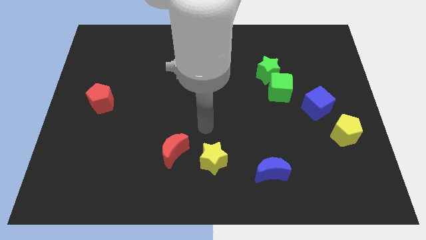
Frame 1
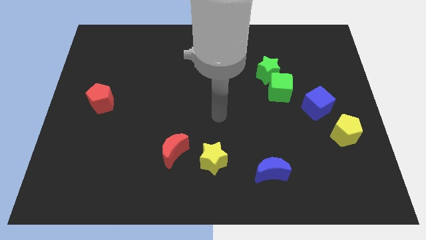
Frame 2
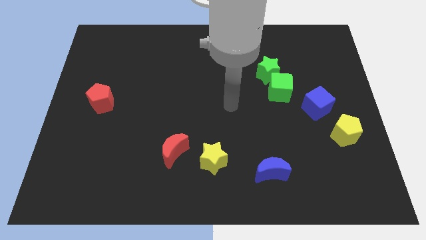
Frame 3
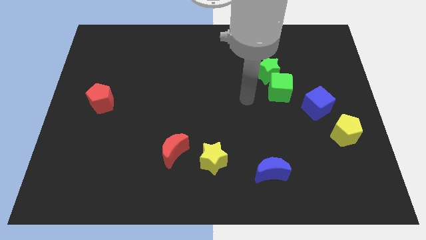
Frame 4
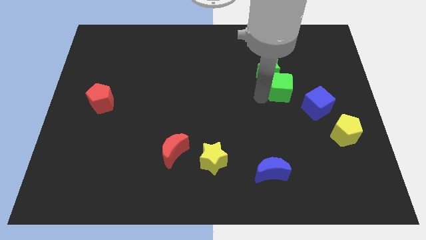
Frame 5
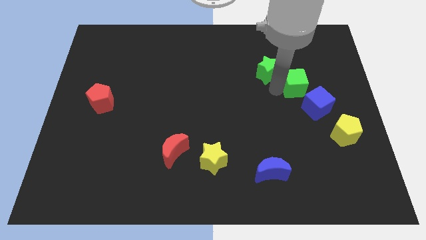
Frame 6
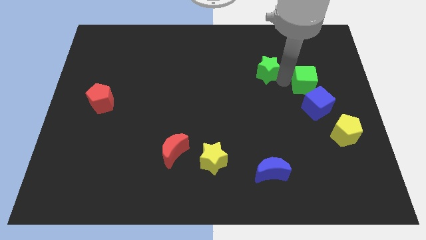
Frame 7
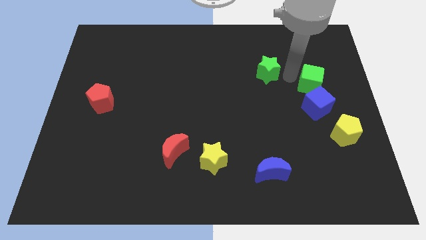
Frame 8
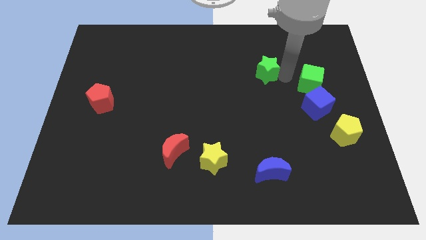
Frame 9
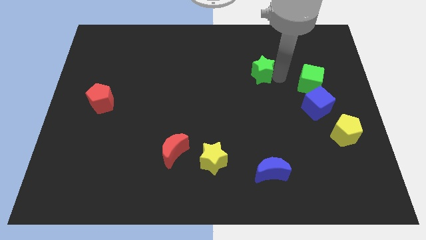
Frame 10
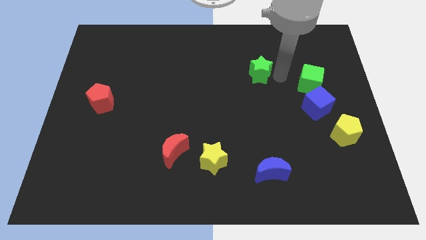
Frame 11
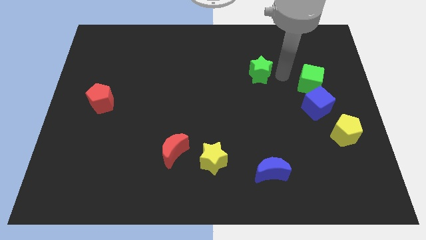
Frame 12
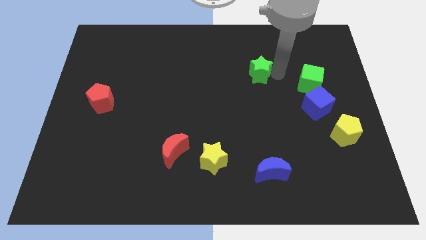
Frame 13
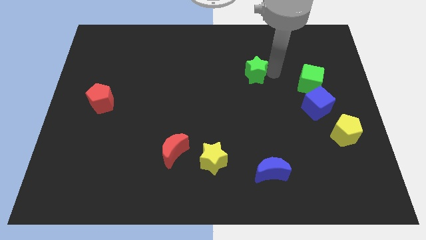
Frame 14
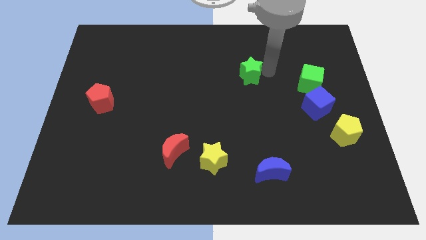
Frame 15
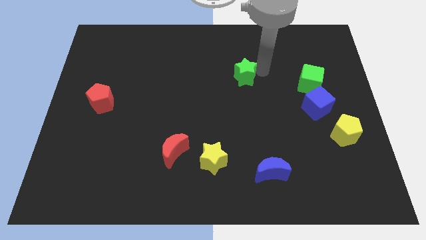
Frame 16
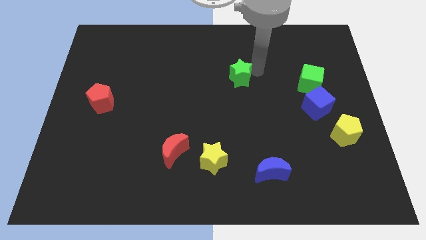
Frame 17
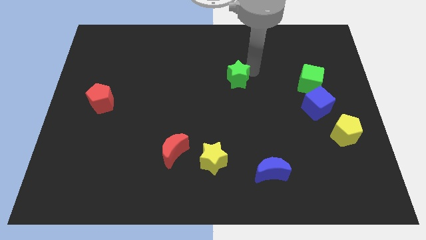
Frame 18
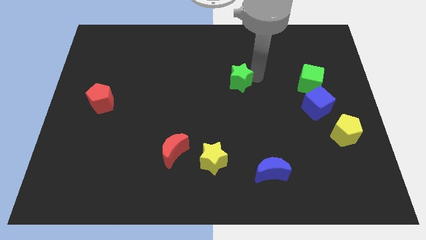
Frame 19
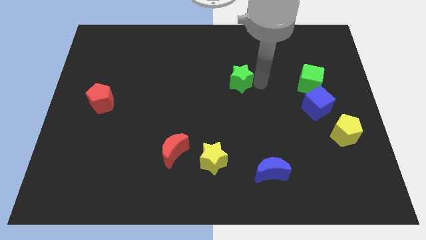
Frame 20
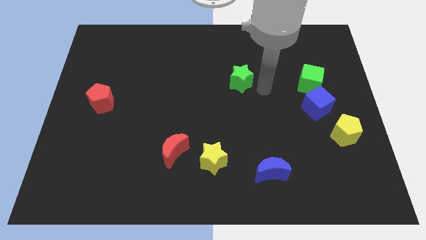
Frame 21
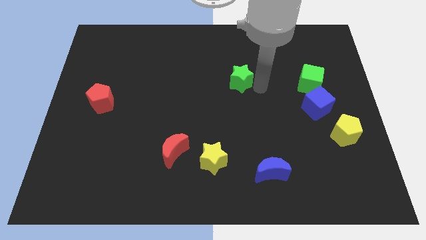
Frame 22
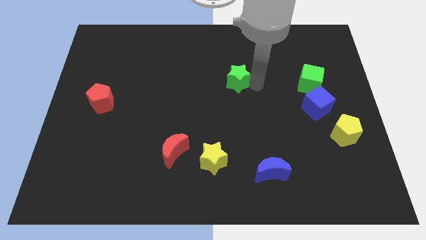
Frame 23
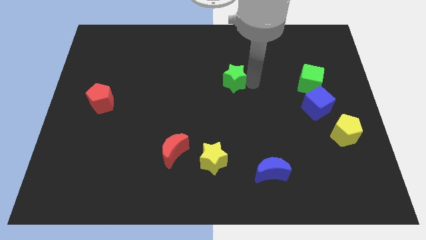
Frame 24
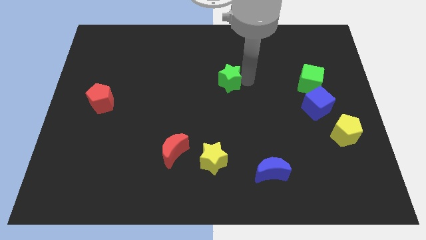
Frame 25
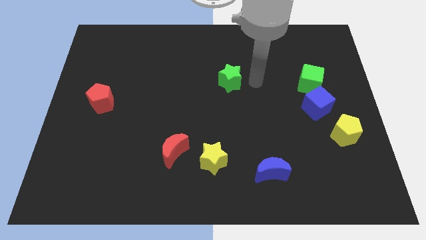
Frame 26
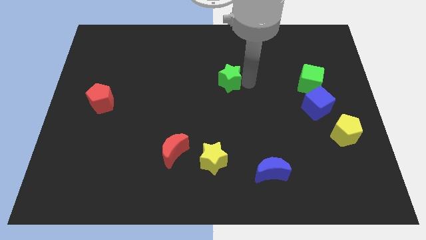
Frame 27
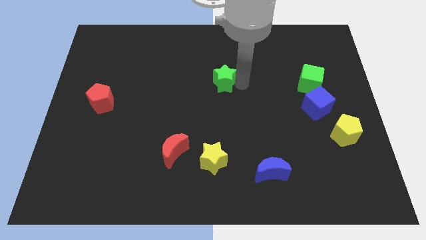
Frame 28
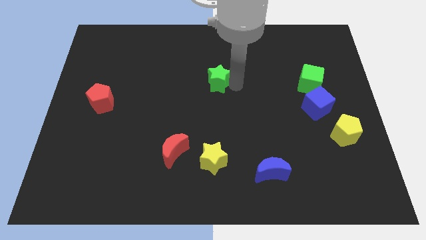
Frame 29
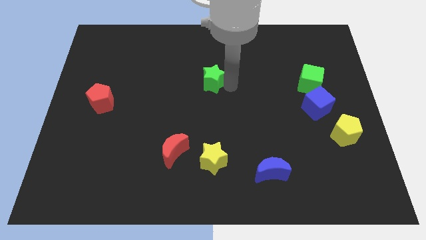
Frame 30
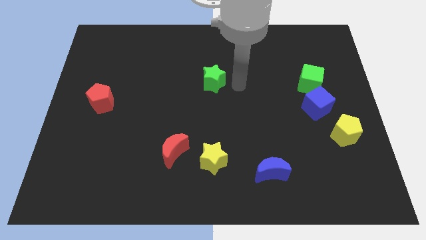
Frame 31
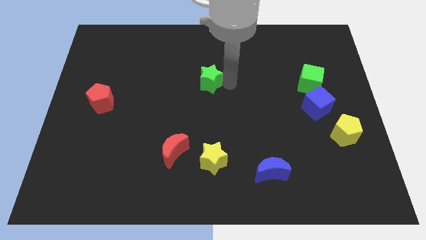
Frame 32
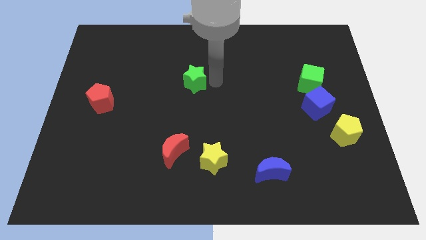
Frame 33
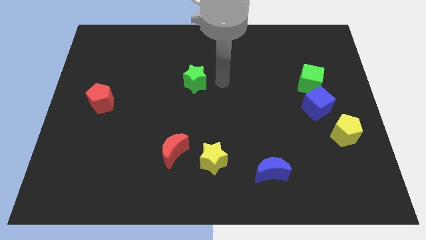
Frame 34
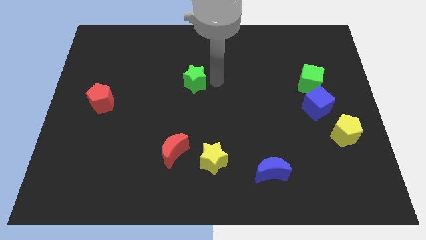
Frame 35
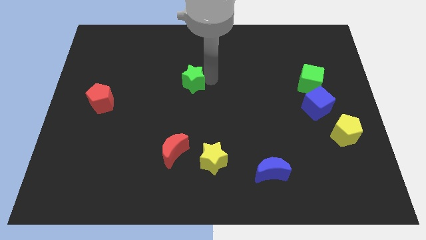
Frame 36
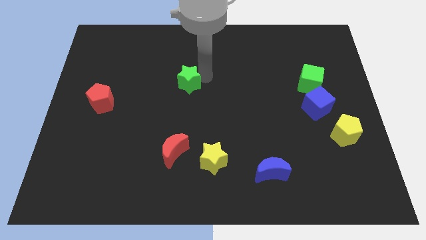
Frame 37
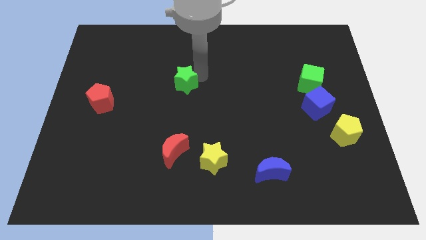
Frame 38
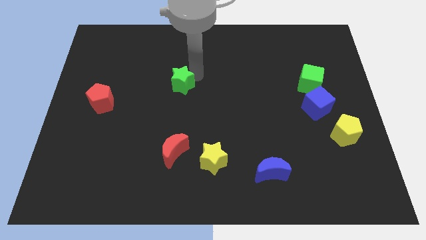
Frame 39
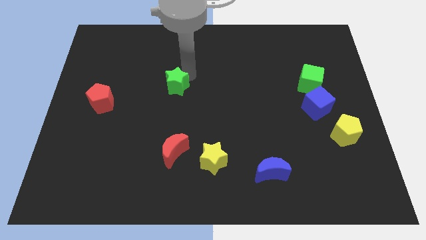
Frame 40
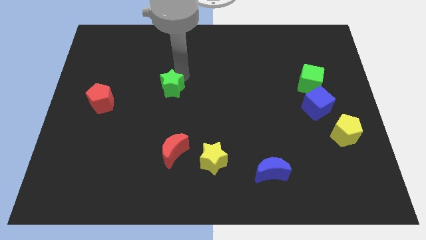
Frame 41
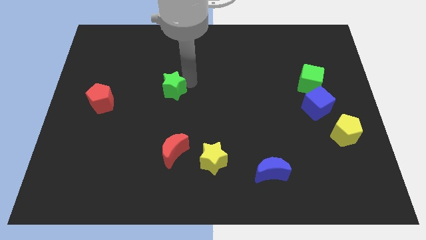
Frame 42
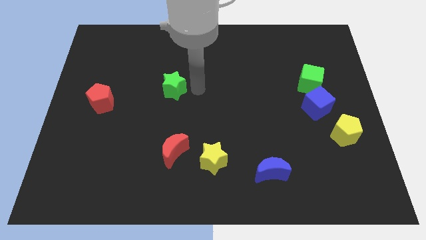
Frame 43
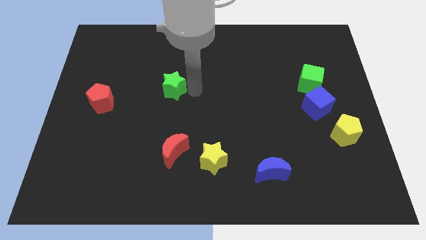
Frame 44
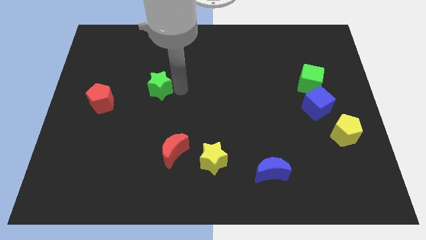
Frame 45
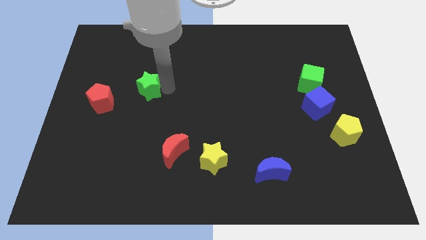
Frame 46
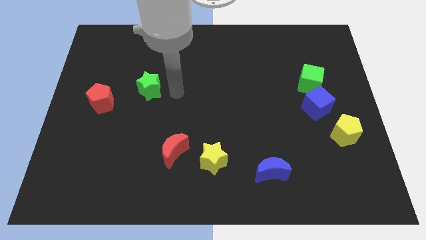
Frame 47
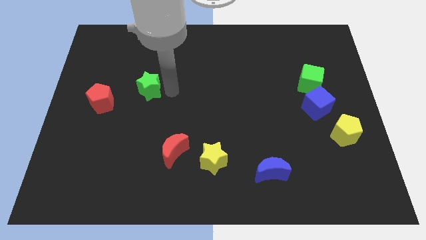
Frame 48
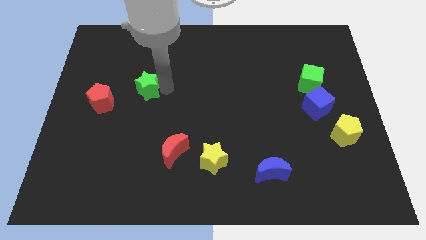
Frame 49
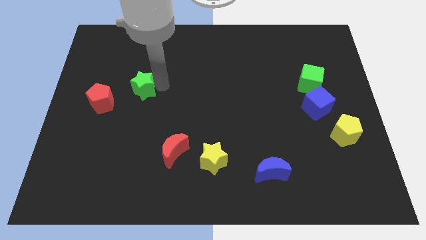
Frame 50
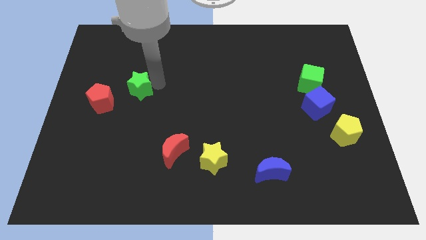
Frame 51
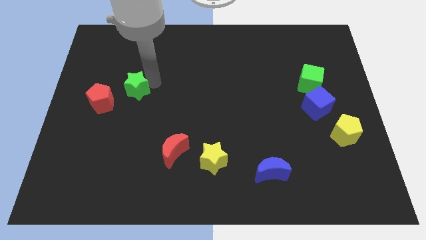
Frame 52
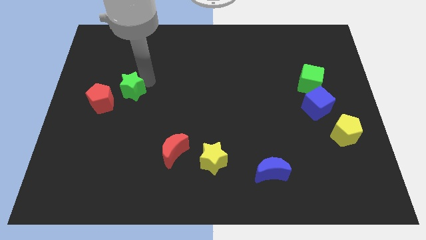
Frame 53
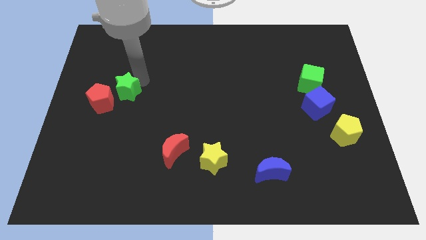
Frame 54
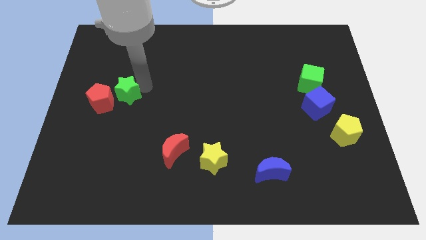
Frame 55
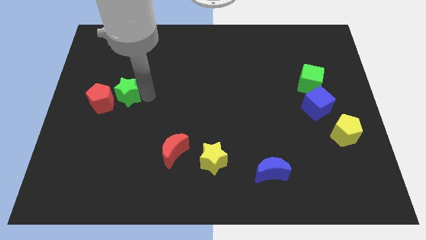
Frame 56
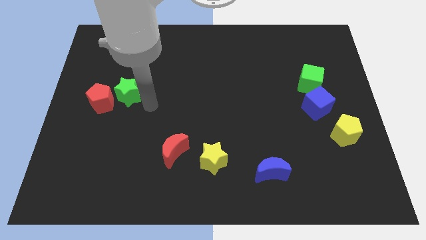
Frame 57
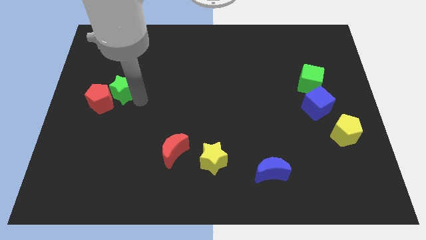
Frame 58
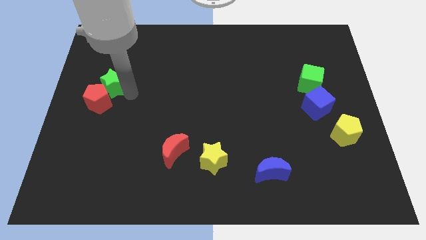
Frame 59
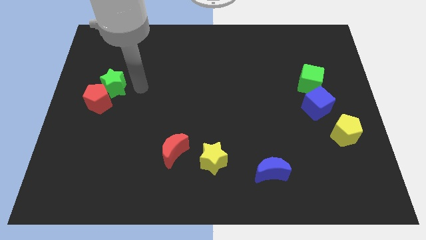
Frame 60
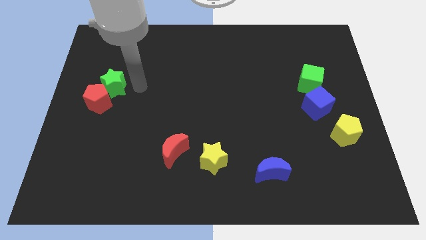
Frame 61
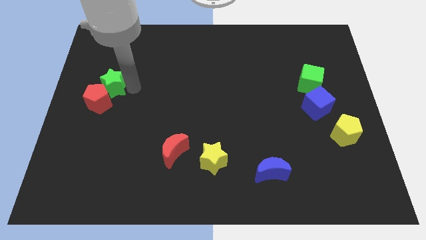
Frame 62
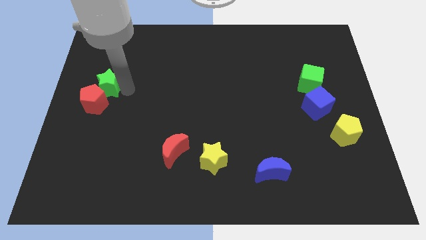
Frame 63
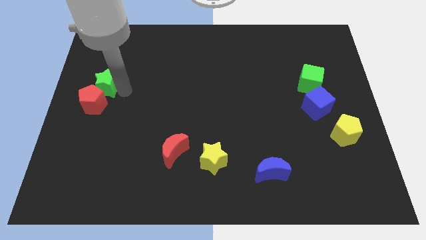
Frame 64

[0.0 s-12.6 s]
move the green star to the left side of the board
